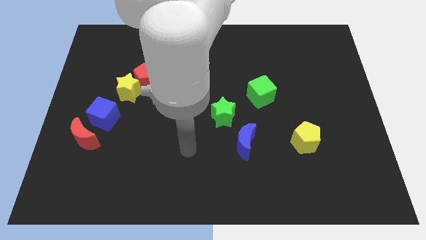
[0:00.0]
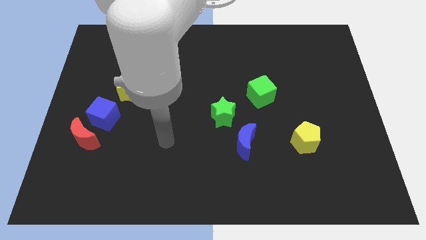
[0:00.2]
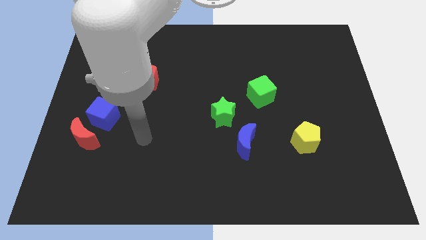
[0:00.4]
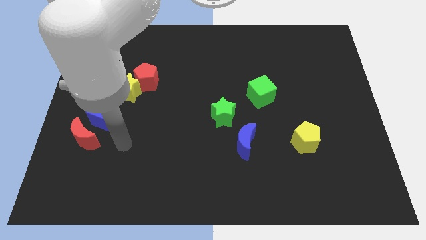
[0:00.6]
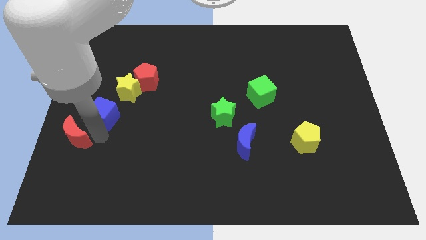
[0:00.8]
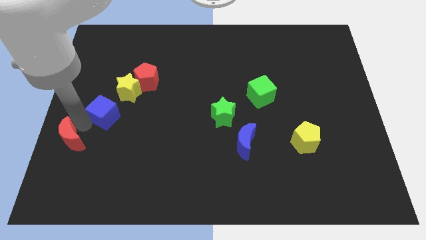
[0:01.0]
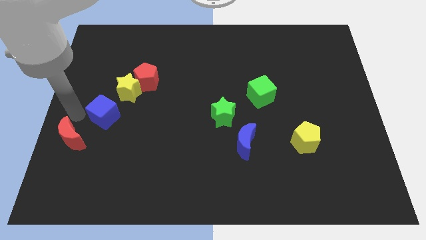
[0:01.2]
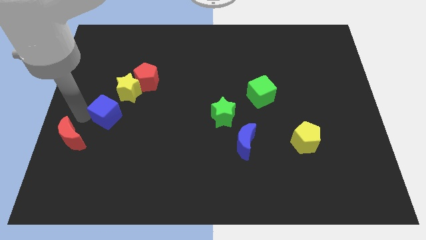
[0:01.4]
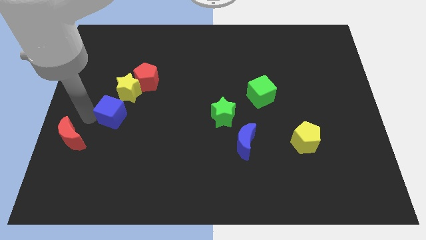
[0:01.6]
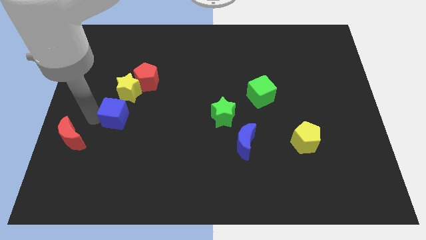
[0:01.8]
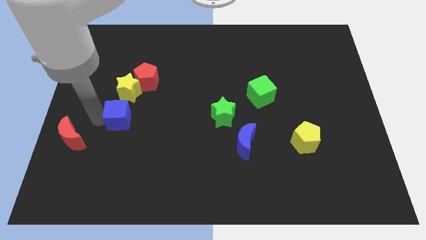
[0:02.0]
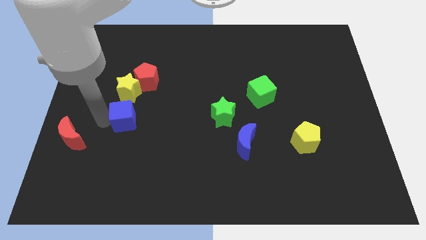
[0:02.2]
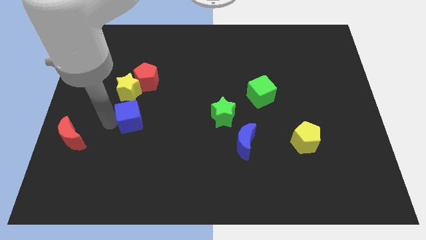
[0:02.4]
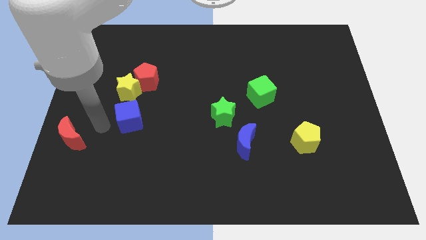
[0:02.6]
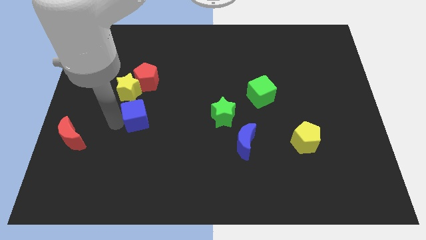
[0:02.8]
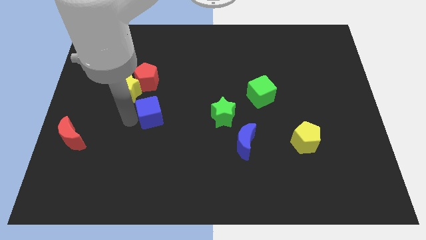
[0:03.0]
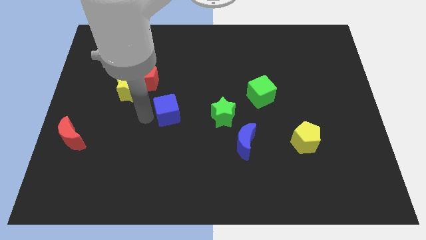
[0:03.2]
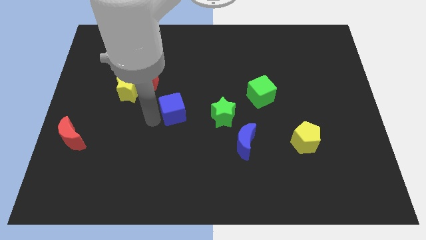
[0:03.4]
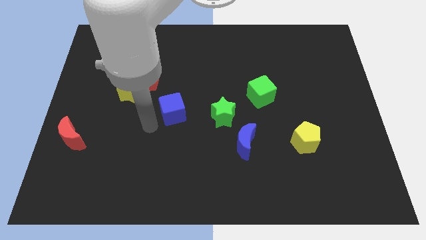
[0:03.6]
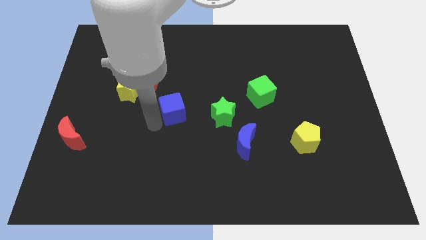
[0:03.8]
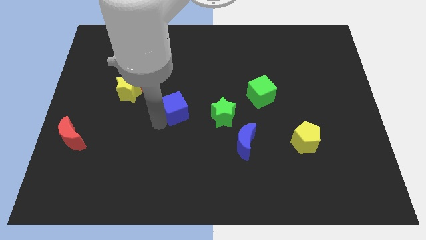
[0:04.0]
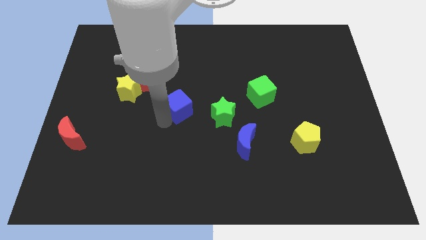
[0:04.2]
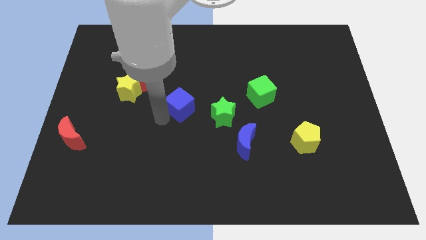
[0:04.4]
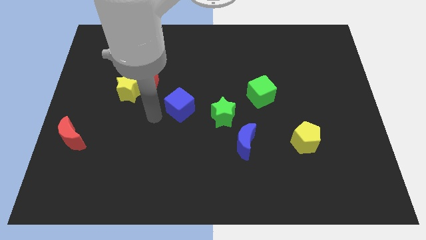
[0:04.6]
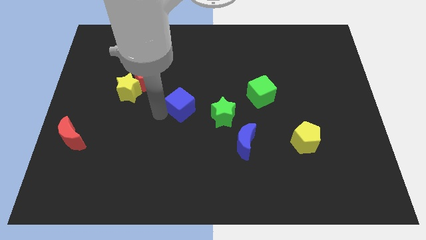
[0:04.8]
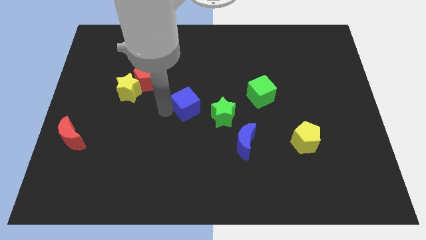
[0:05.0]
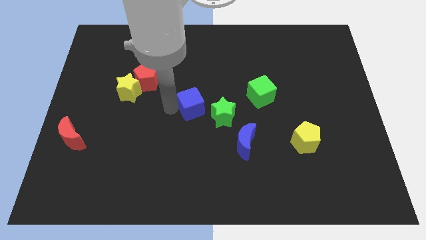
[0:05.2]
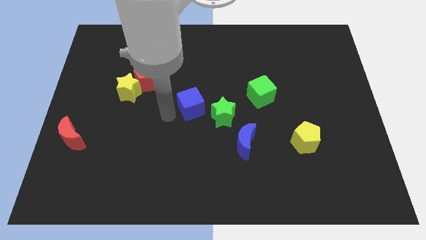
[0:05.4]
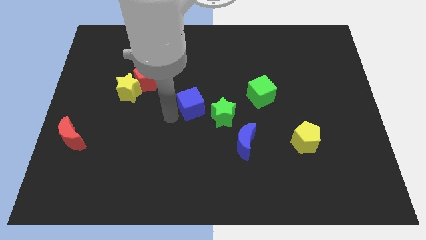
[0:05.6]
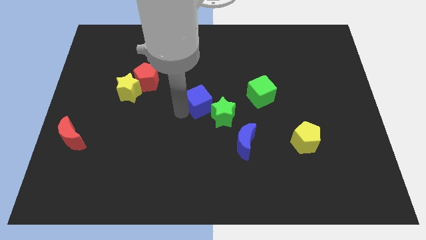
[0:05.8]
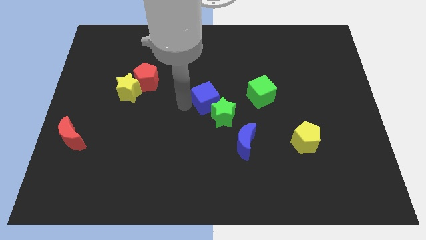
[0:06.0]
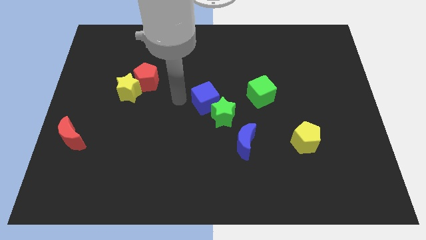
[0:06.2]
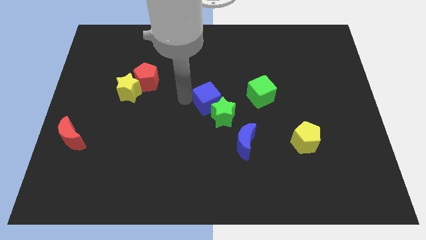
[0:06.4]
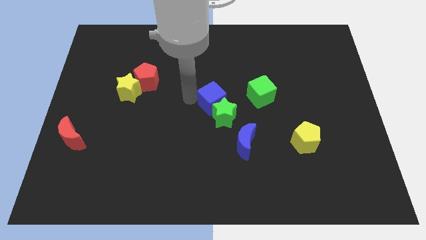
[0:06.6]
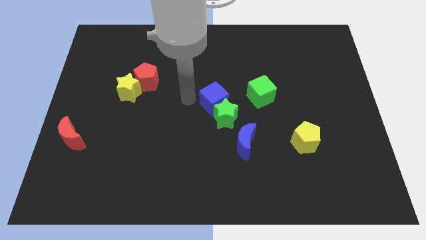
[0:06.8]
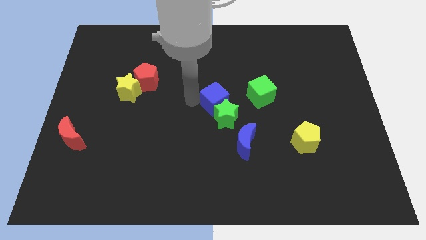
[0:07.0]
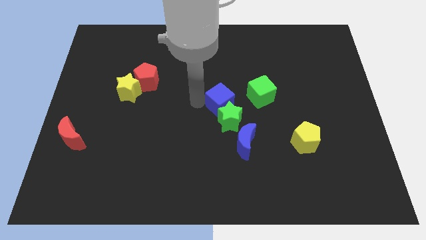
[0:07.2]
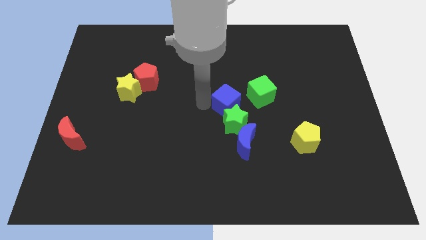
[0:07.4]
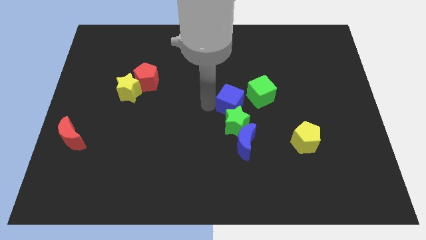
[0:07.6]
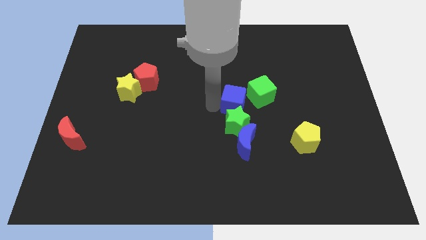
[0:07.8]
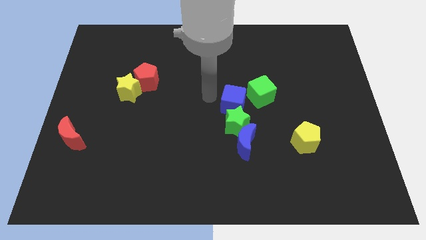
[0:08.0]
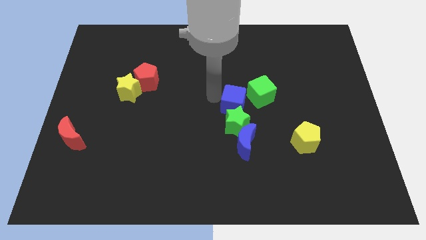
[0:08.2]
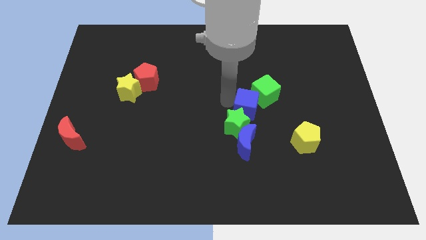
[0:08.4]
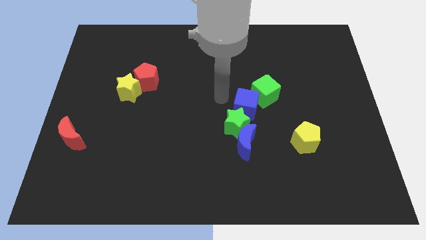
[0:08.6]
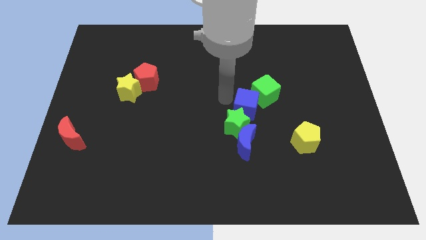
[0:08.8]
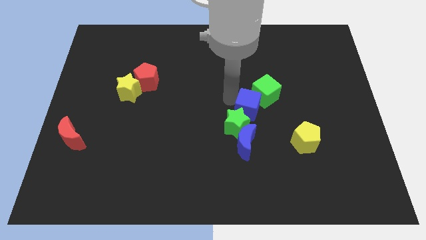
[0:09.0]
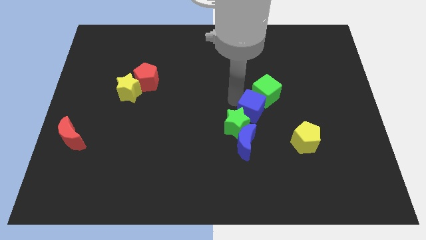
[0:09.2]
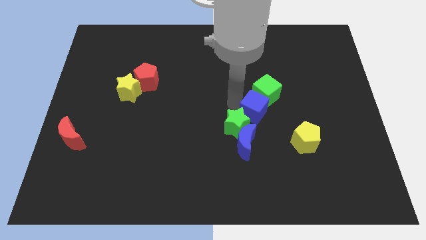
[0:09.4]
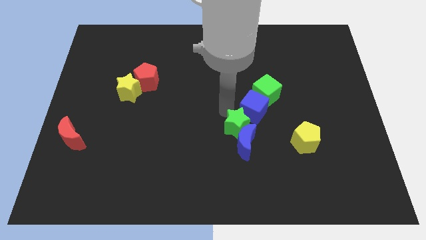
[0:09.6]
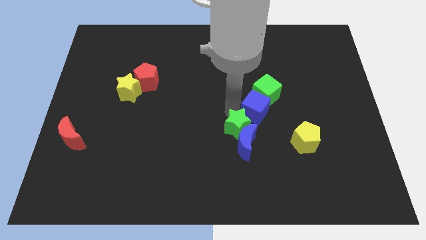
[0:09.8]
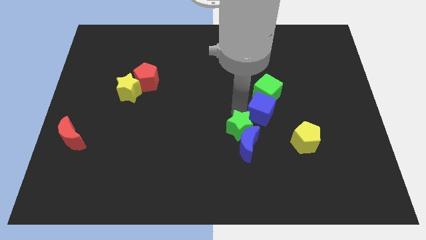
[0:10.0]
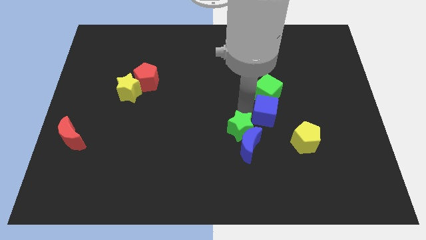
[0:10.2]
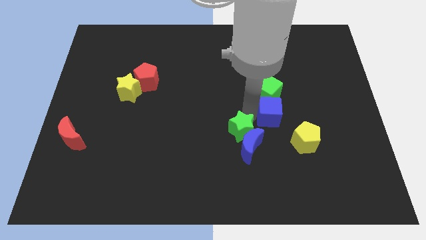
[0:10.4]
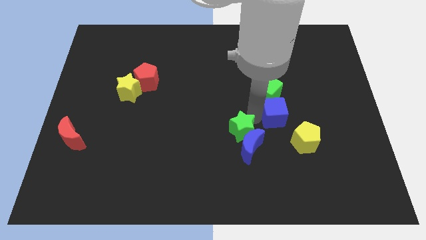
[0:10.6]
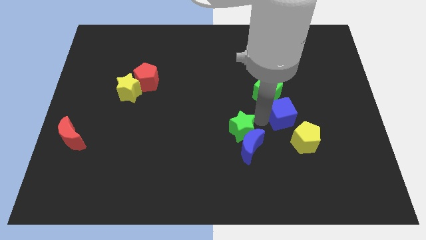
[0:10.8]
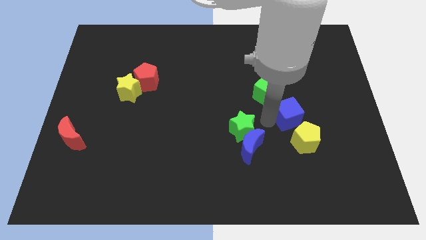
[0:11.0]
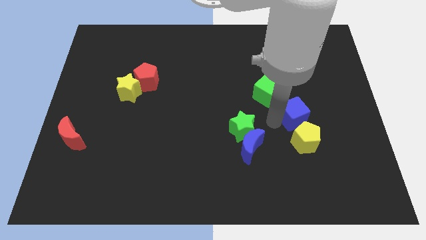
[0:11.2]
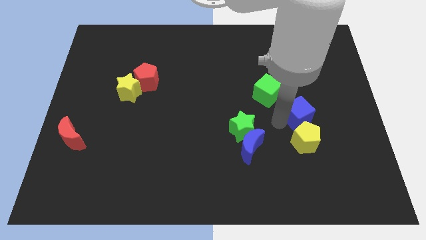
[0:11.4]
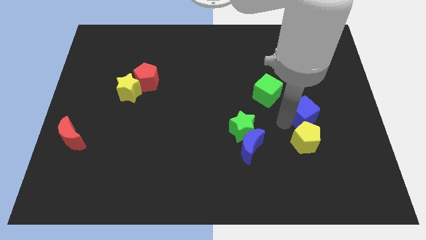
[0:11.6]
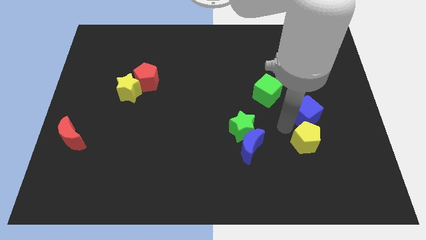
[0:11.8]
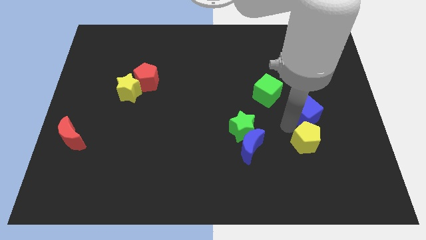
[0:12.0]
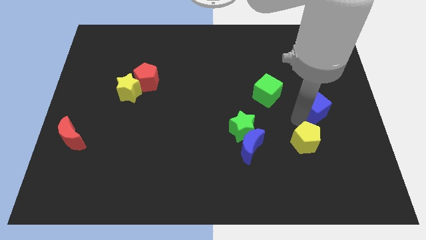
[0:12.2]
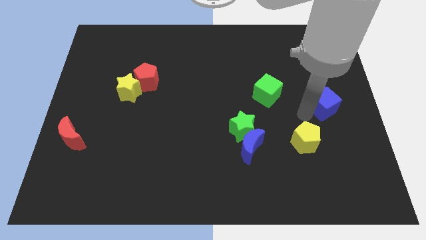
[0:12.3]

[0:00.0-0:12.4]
slide the blue cube to the right side
